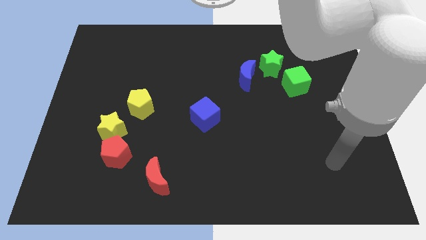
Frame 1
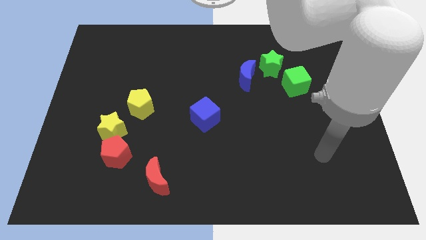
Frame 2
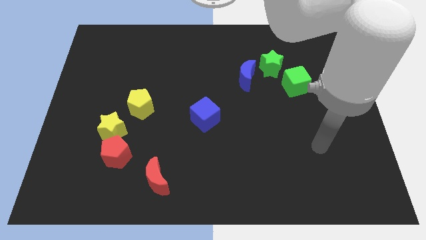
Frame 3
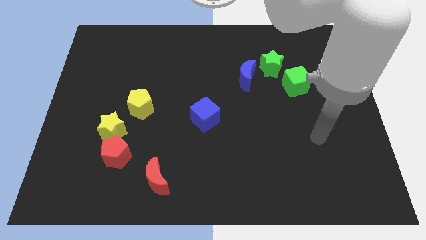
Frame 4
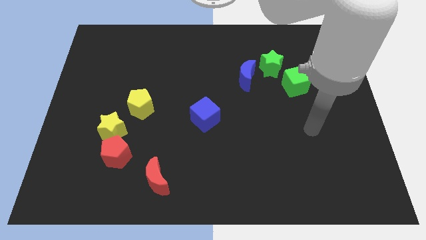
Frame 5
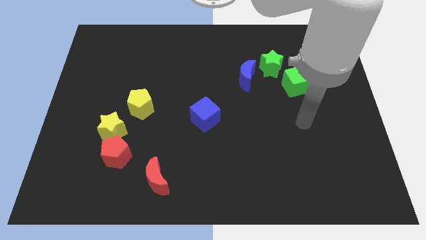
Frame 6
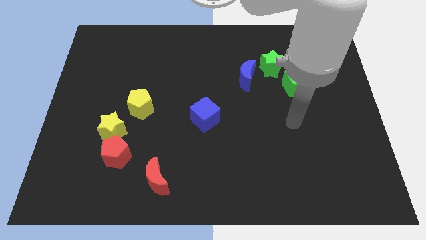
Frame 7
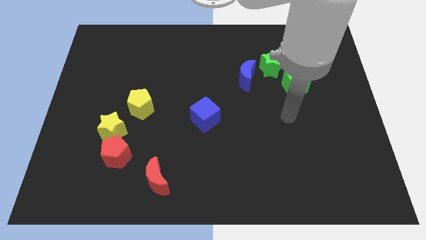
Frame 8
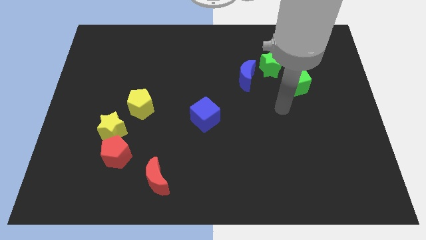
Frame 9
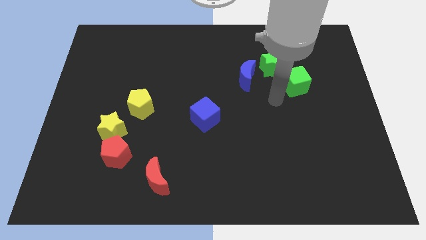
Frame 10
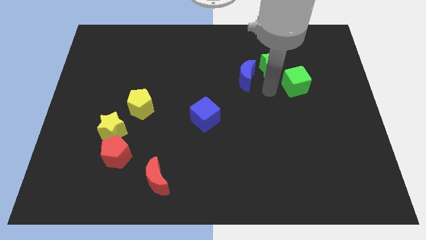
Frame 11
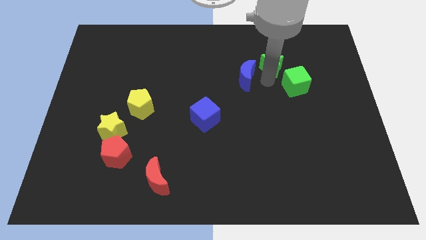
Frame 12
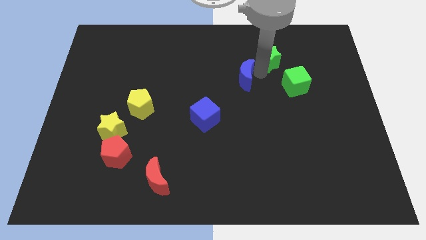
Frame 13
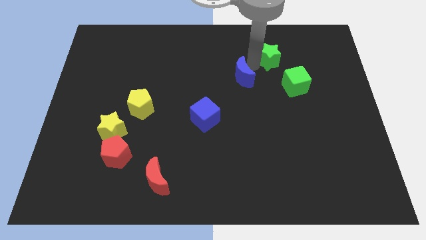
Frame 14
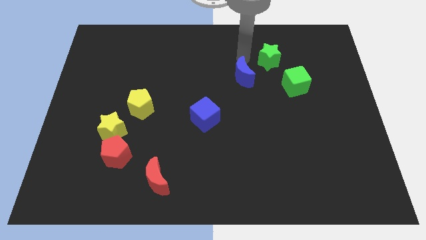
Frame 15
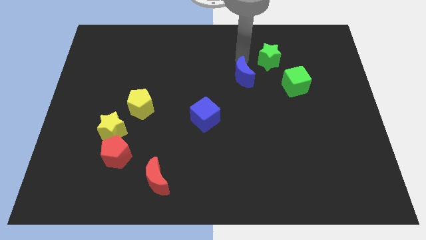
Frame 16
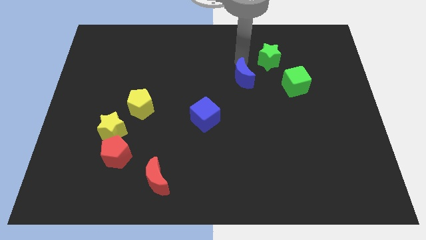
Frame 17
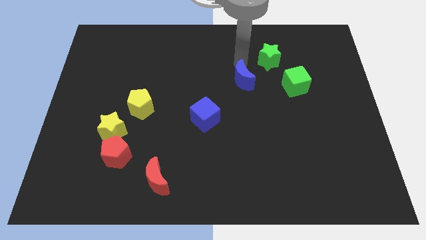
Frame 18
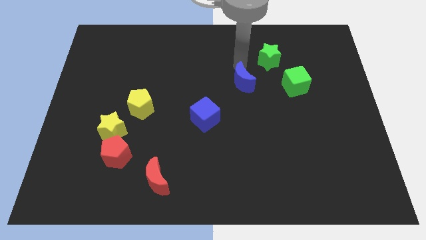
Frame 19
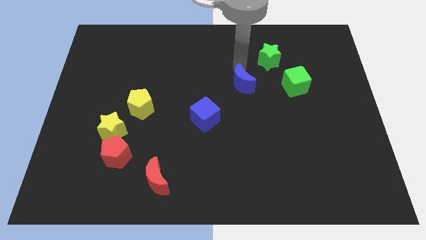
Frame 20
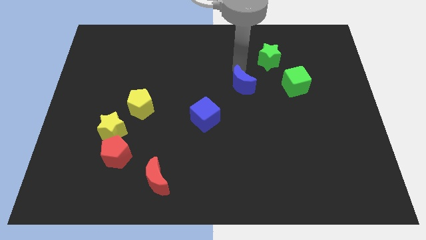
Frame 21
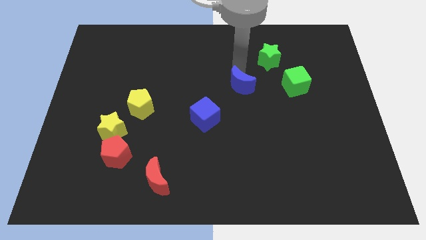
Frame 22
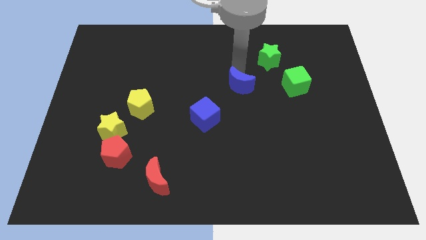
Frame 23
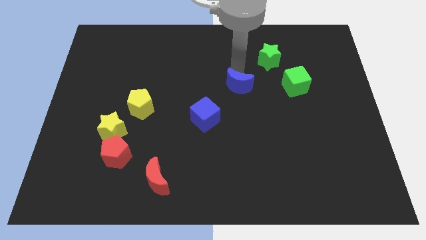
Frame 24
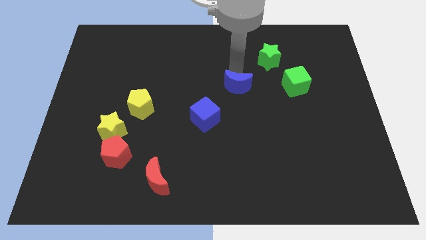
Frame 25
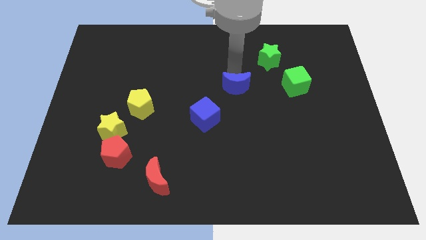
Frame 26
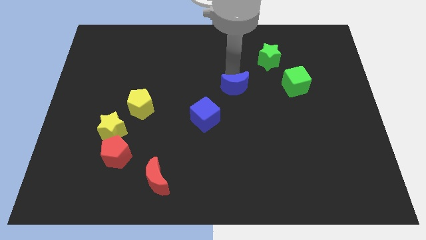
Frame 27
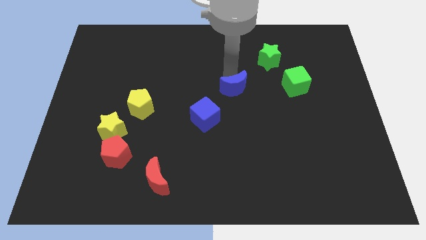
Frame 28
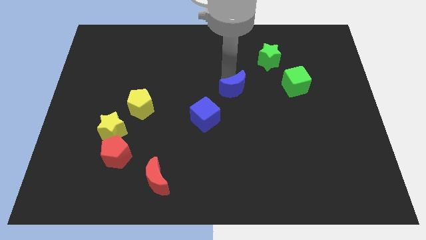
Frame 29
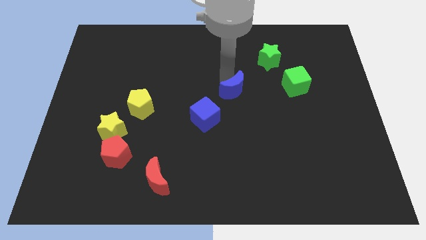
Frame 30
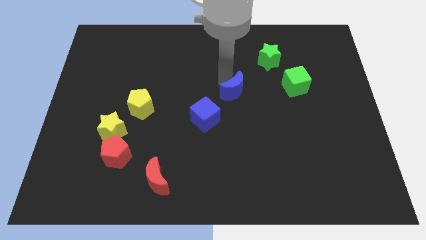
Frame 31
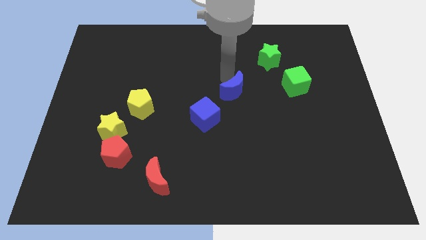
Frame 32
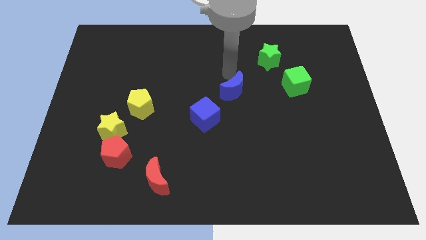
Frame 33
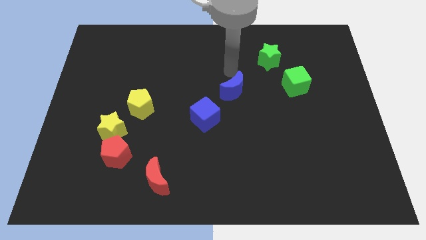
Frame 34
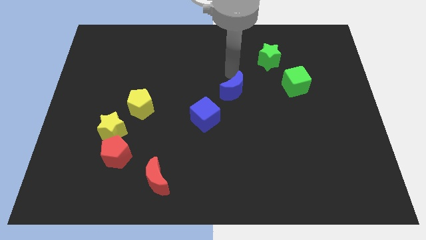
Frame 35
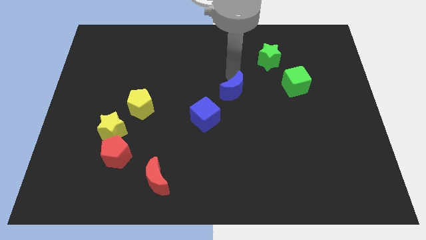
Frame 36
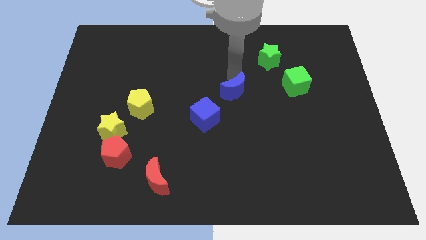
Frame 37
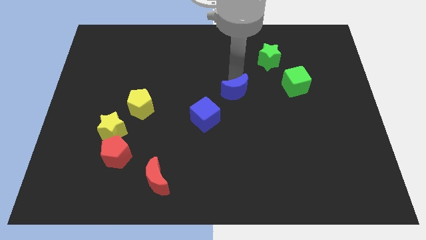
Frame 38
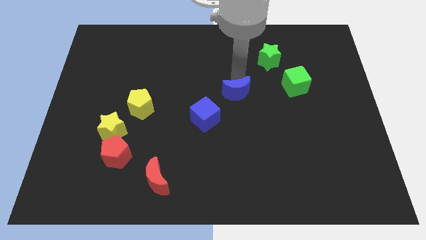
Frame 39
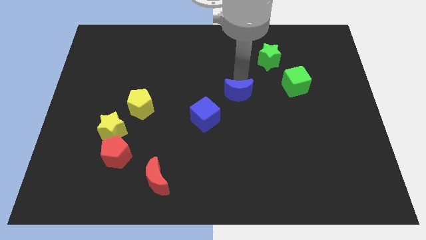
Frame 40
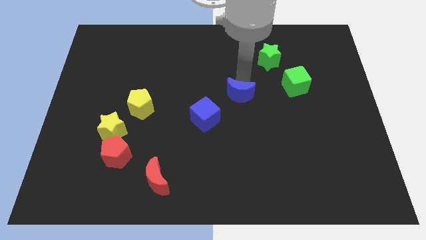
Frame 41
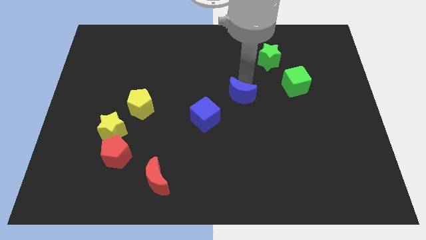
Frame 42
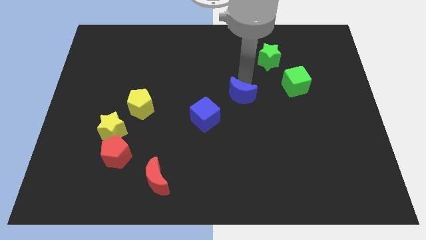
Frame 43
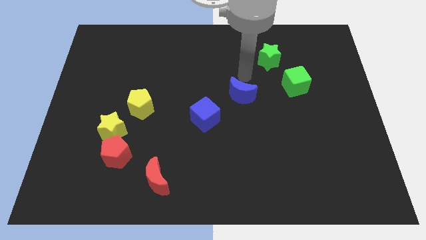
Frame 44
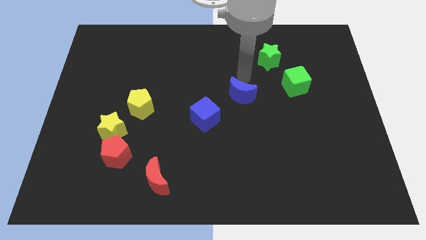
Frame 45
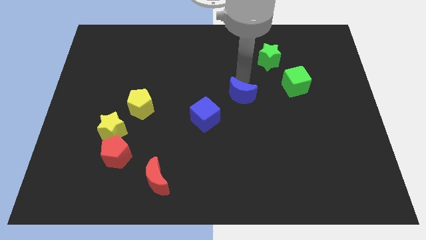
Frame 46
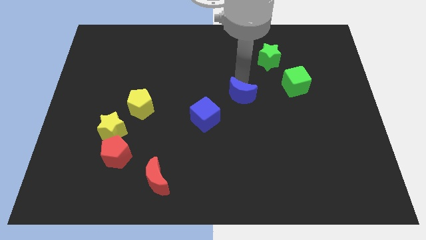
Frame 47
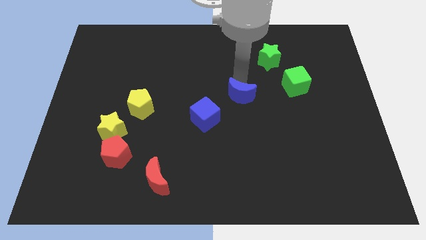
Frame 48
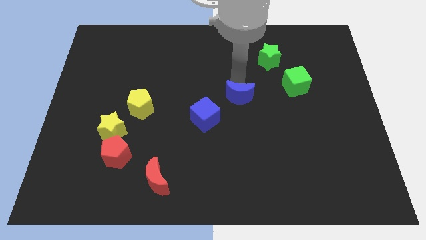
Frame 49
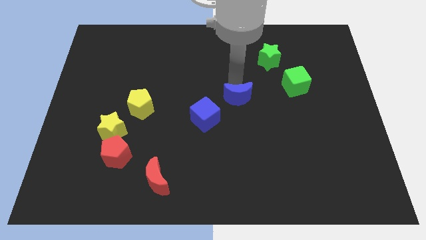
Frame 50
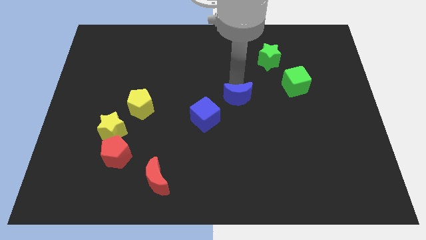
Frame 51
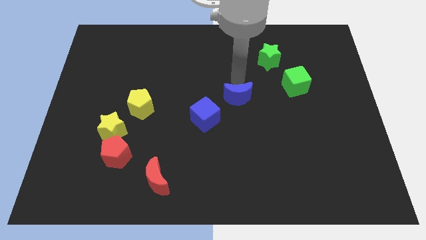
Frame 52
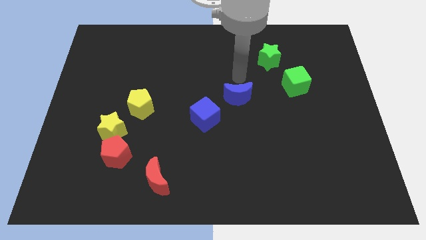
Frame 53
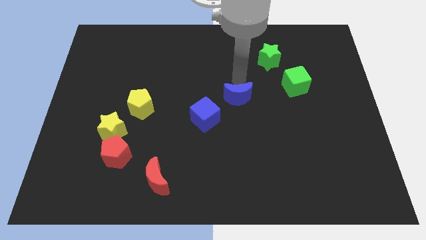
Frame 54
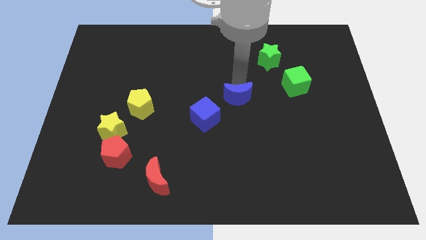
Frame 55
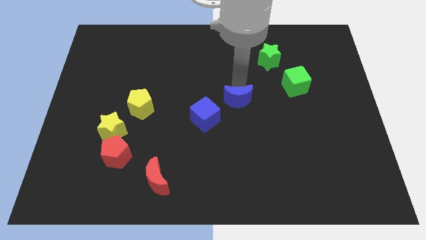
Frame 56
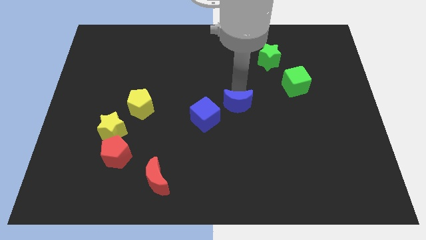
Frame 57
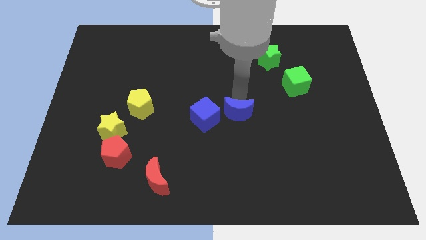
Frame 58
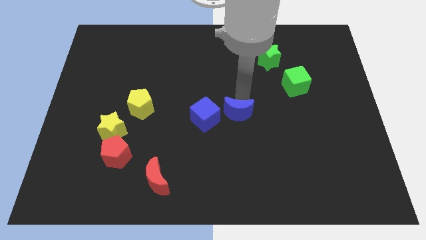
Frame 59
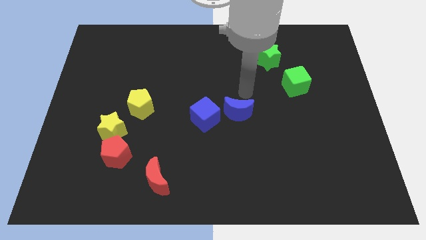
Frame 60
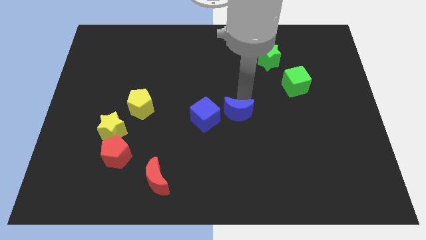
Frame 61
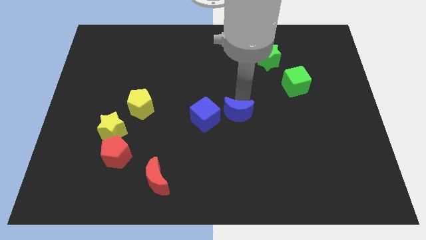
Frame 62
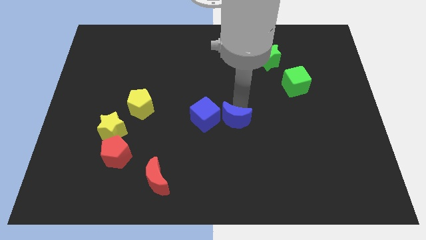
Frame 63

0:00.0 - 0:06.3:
slide the blue moon to the bottom right of the blue cube
